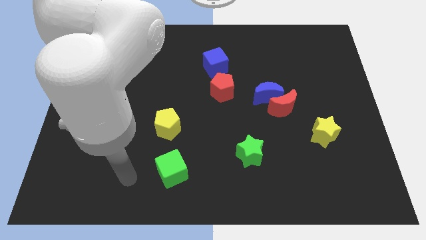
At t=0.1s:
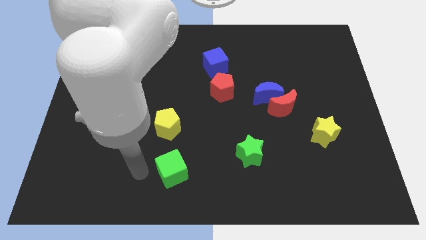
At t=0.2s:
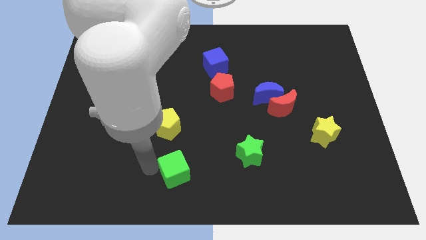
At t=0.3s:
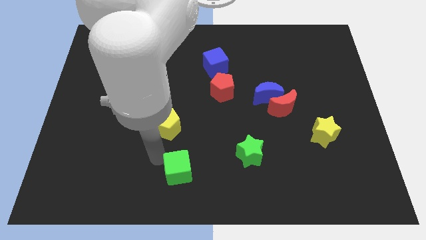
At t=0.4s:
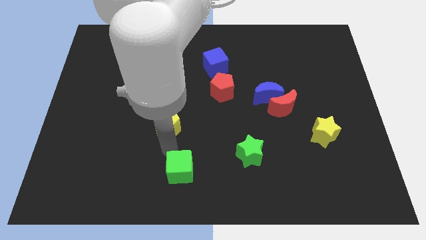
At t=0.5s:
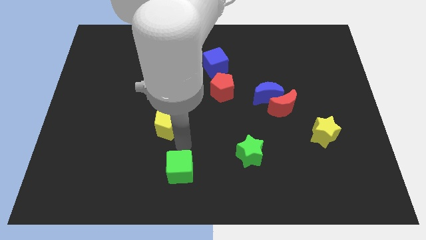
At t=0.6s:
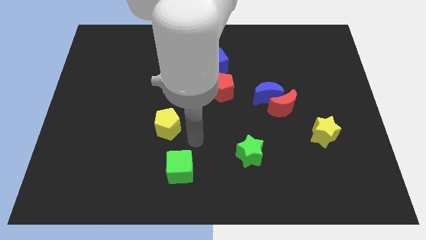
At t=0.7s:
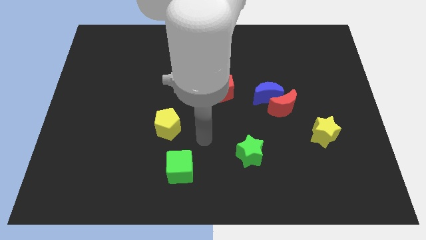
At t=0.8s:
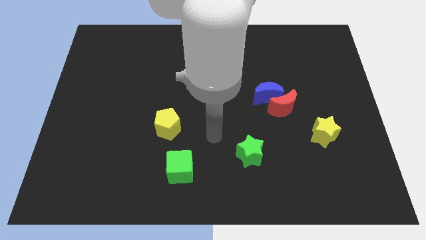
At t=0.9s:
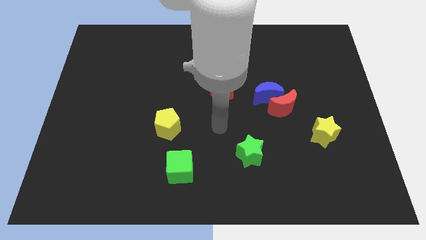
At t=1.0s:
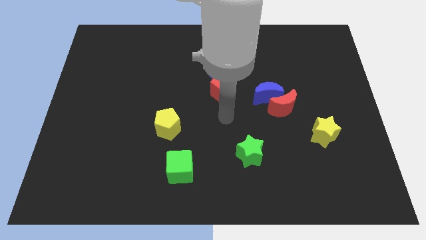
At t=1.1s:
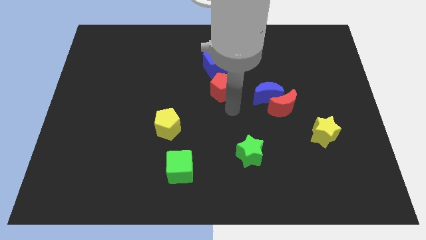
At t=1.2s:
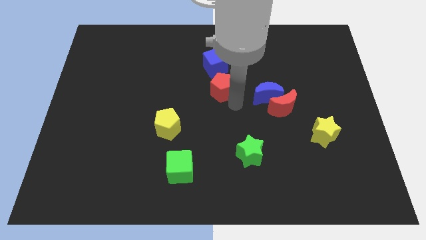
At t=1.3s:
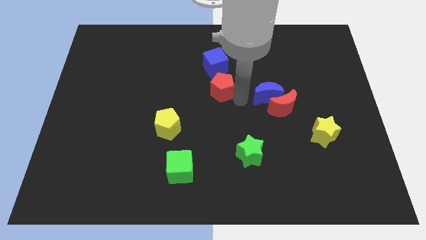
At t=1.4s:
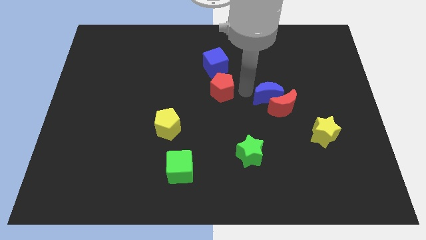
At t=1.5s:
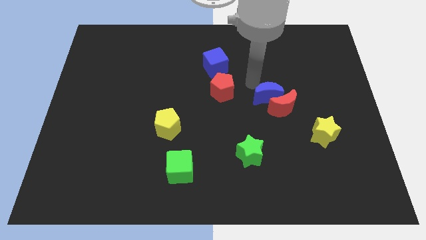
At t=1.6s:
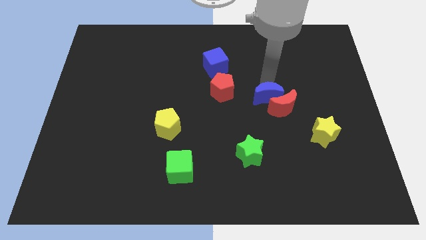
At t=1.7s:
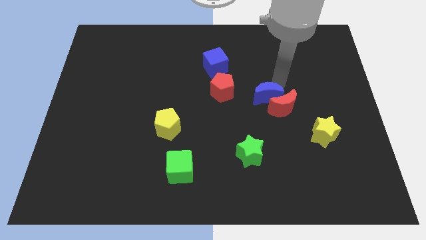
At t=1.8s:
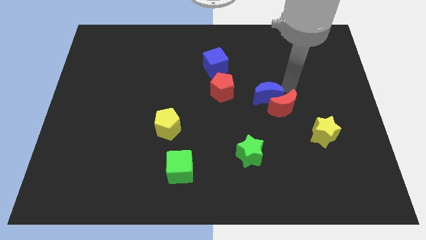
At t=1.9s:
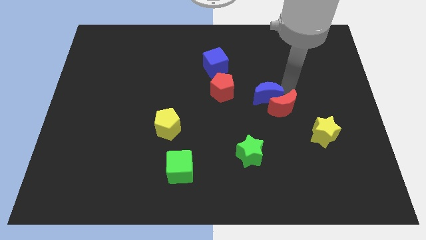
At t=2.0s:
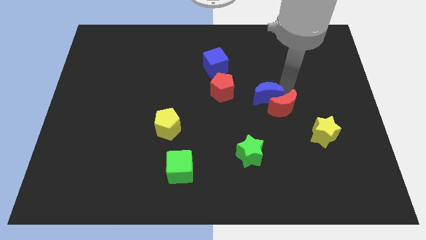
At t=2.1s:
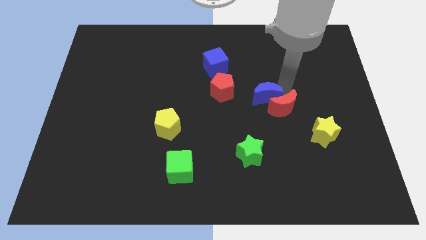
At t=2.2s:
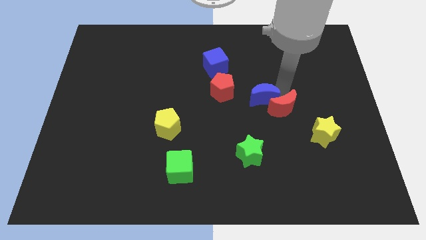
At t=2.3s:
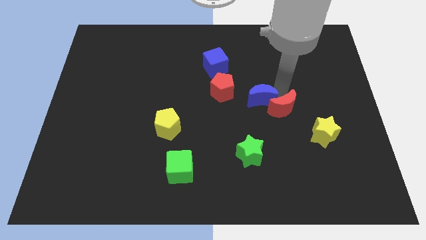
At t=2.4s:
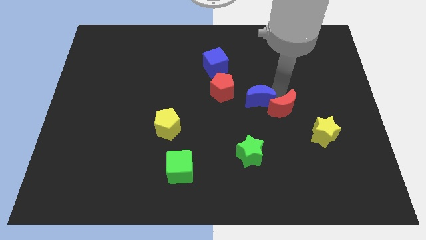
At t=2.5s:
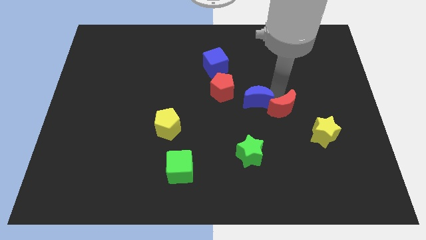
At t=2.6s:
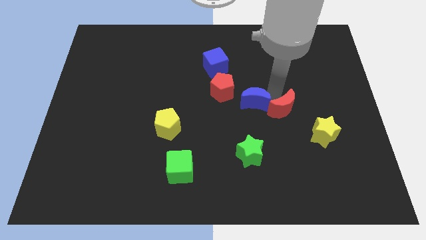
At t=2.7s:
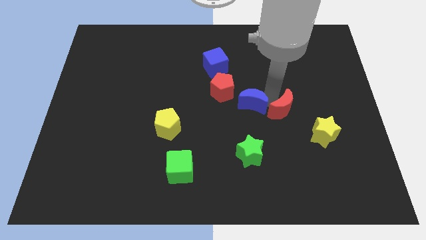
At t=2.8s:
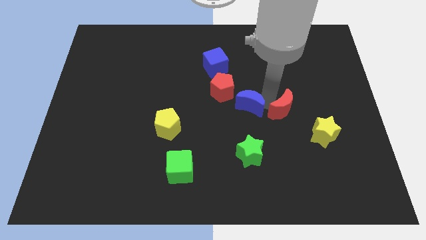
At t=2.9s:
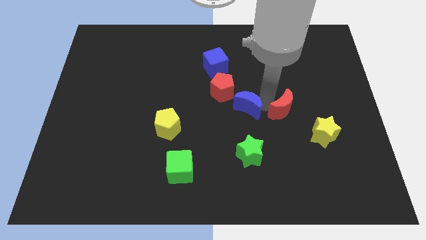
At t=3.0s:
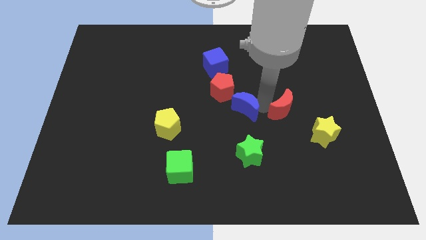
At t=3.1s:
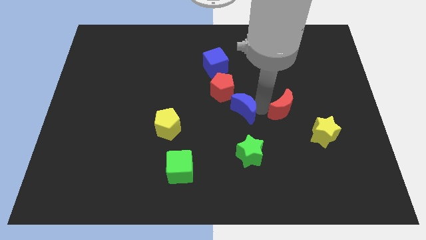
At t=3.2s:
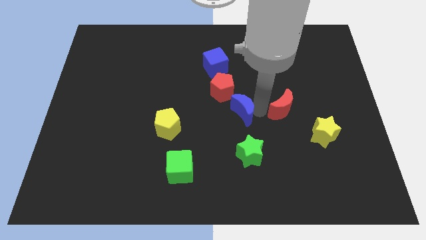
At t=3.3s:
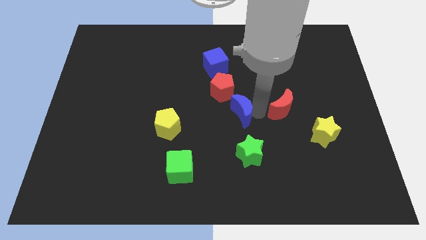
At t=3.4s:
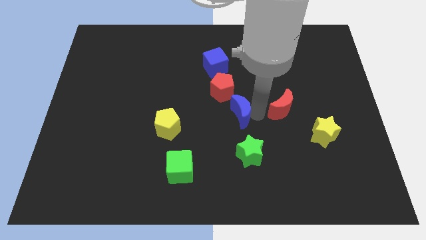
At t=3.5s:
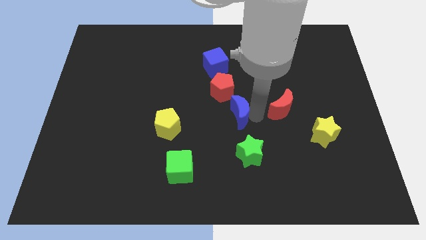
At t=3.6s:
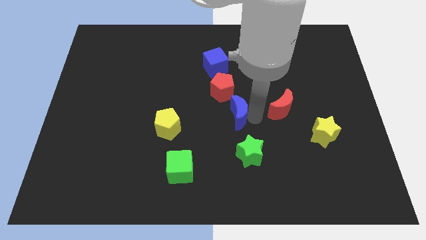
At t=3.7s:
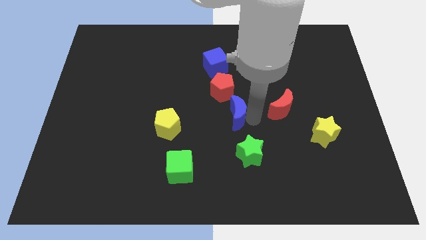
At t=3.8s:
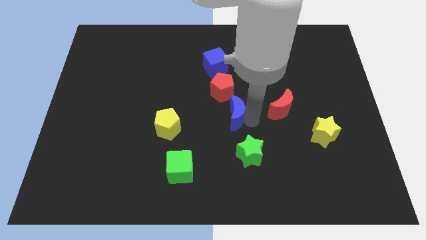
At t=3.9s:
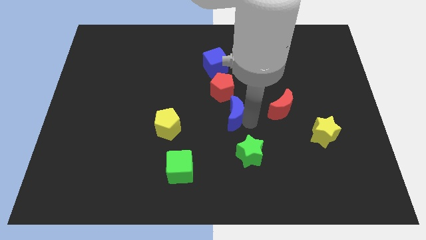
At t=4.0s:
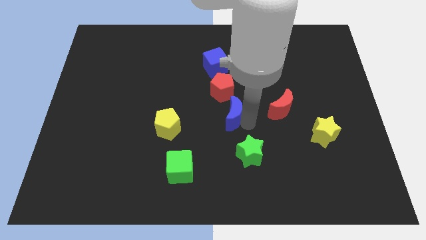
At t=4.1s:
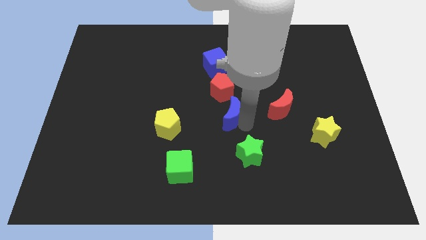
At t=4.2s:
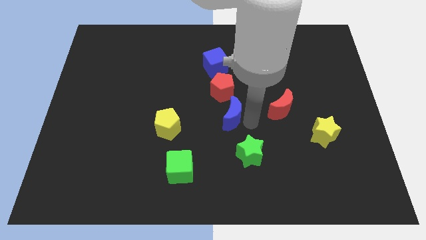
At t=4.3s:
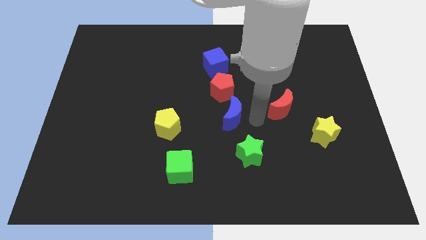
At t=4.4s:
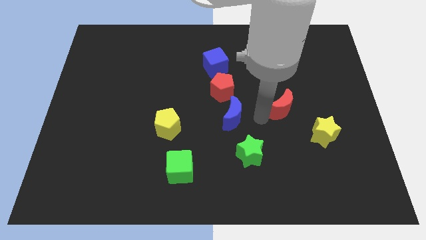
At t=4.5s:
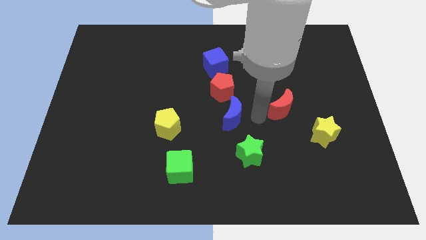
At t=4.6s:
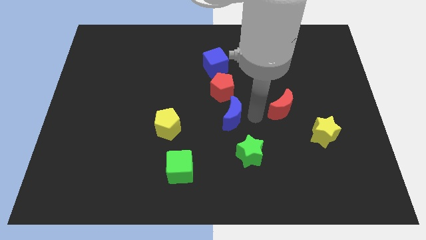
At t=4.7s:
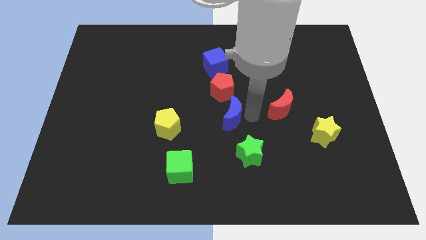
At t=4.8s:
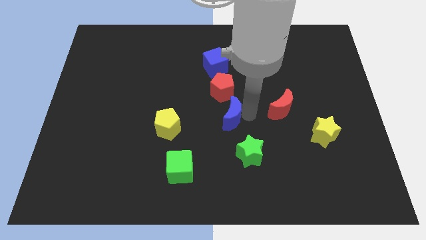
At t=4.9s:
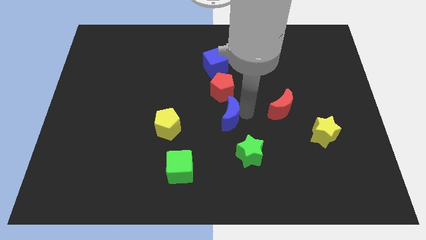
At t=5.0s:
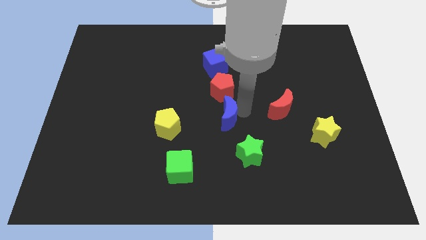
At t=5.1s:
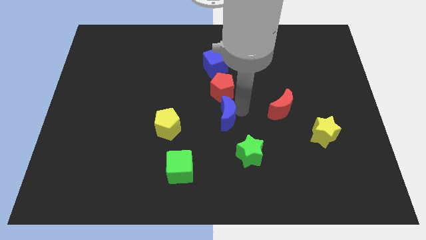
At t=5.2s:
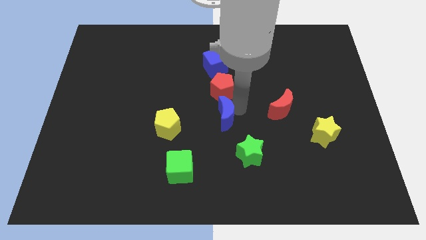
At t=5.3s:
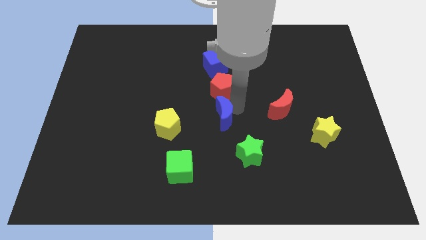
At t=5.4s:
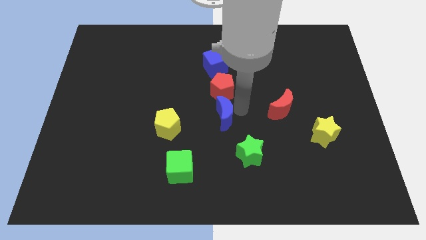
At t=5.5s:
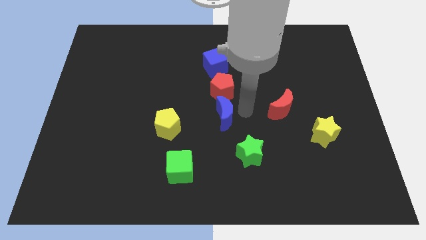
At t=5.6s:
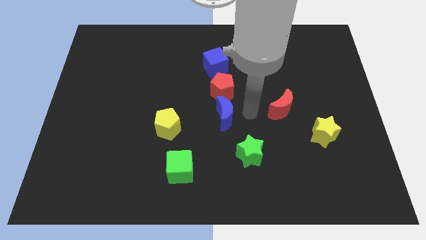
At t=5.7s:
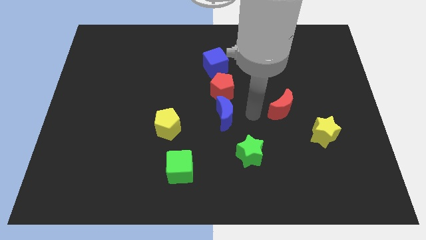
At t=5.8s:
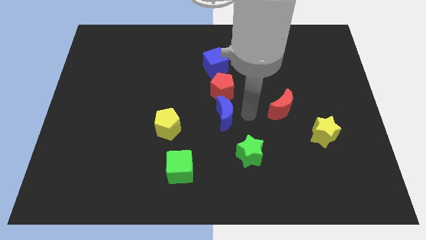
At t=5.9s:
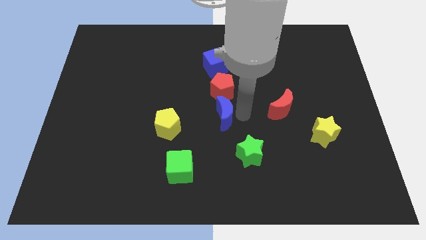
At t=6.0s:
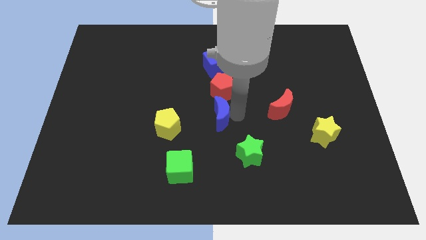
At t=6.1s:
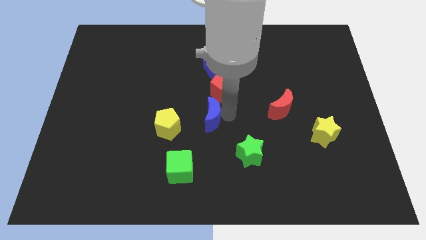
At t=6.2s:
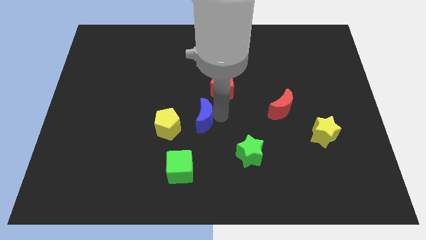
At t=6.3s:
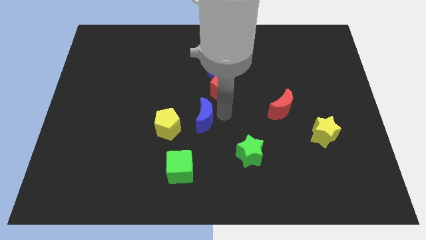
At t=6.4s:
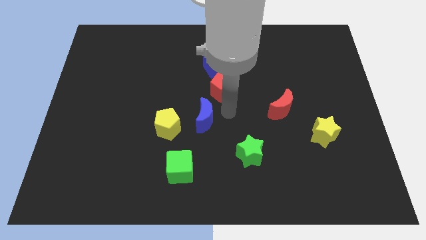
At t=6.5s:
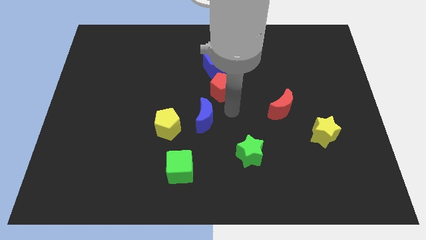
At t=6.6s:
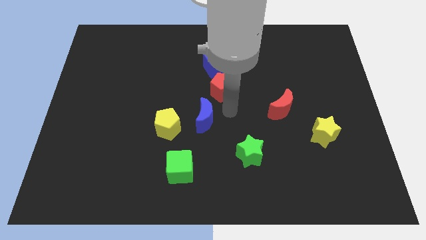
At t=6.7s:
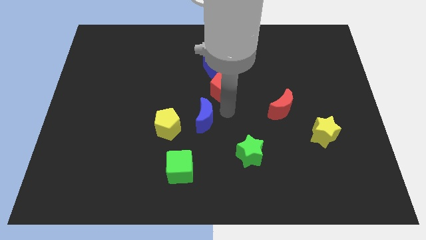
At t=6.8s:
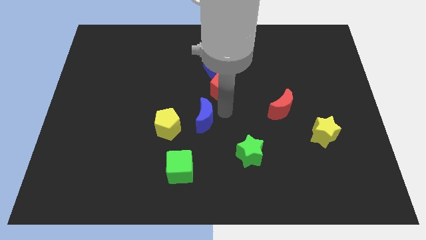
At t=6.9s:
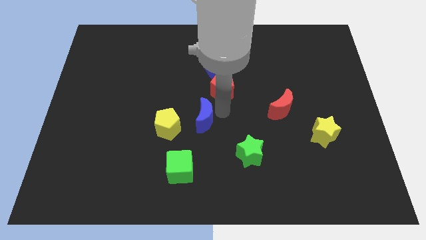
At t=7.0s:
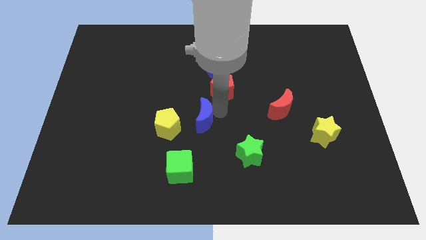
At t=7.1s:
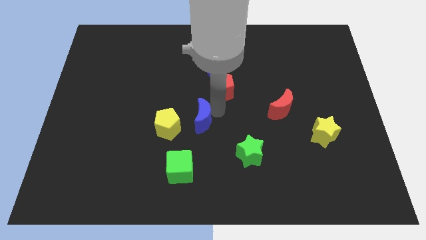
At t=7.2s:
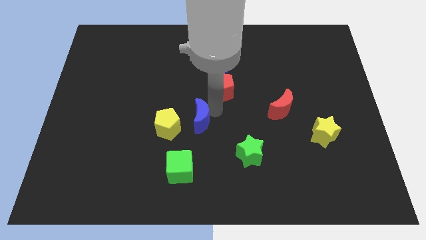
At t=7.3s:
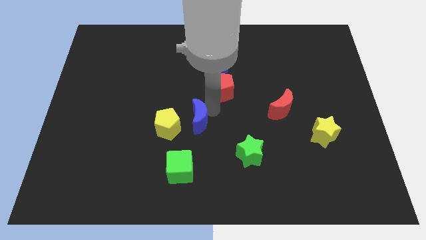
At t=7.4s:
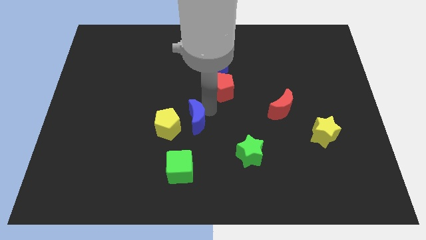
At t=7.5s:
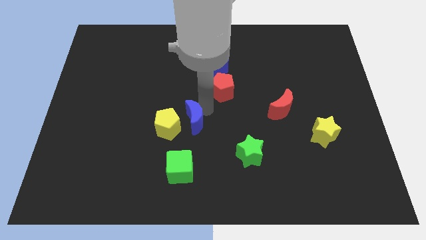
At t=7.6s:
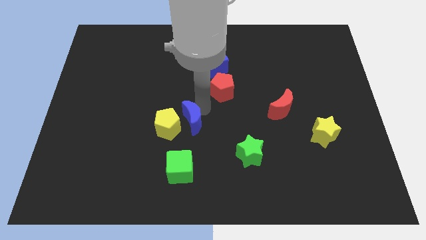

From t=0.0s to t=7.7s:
put the blue moon towards the yellow pentagon
